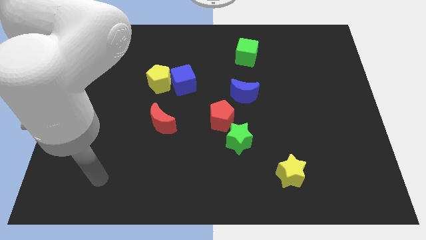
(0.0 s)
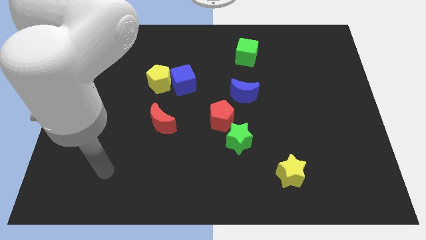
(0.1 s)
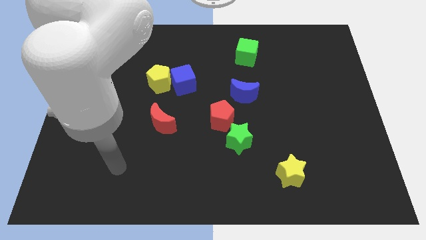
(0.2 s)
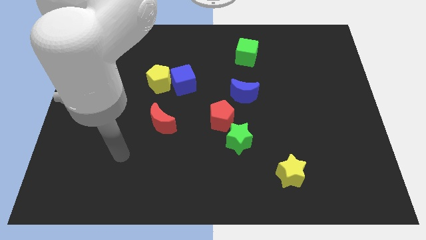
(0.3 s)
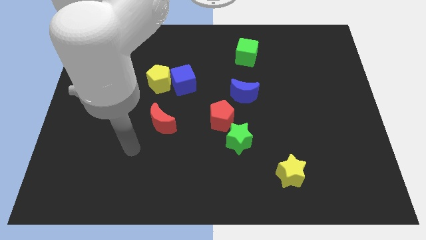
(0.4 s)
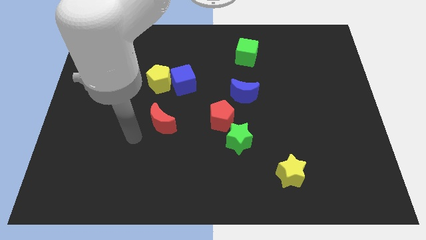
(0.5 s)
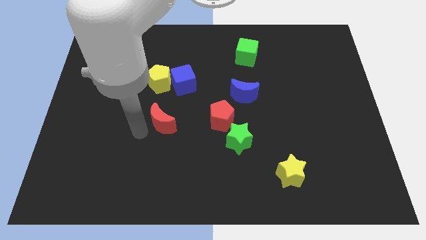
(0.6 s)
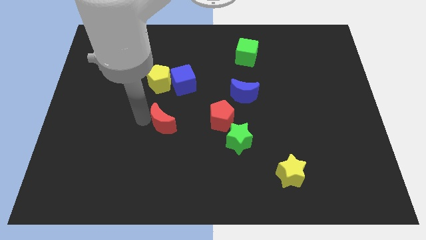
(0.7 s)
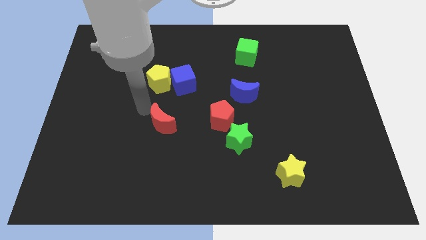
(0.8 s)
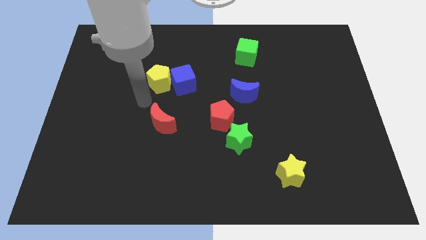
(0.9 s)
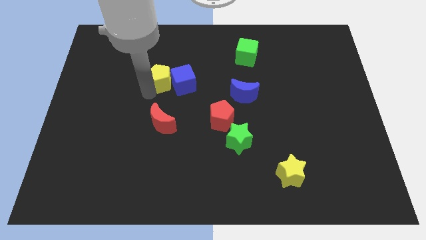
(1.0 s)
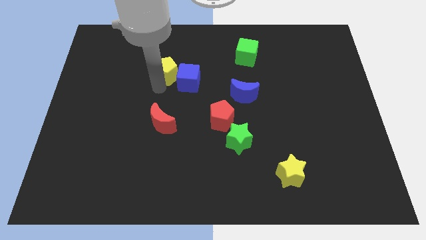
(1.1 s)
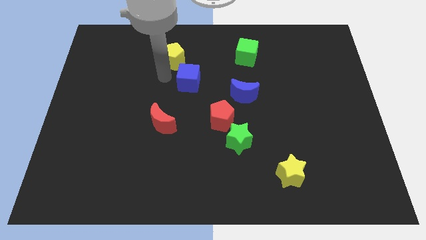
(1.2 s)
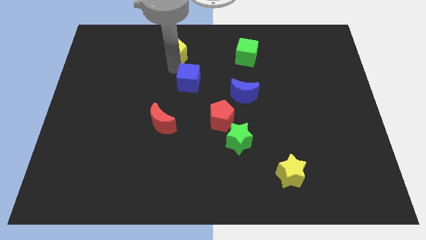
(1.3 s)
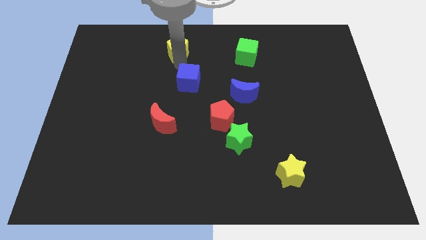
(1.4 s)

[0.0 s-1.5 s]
separate the blue cube from the yellow pentagon

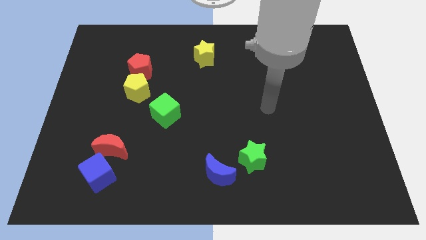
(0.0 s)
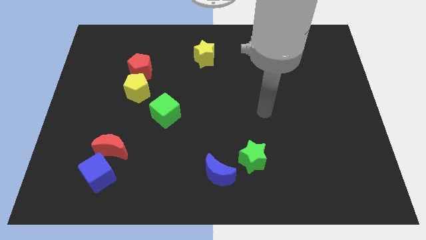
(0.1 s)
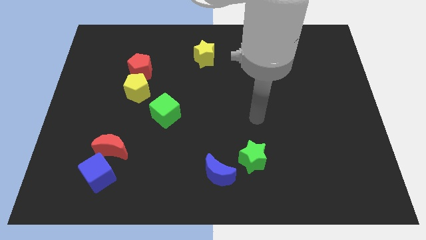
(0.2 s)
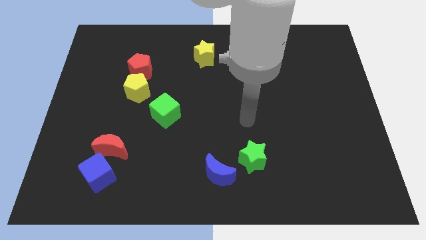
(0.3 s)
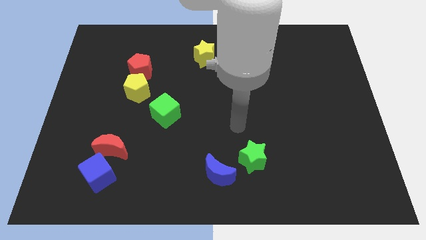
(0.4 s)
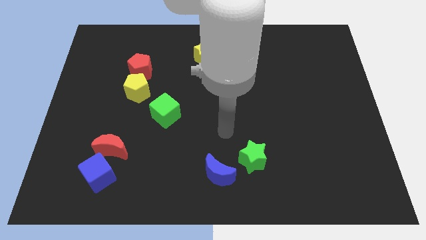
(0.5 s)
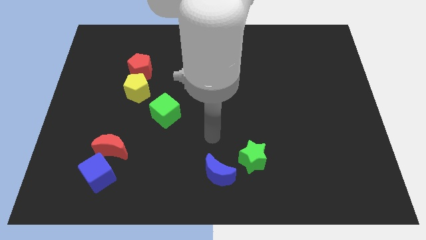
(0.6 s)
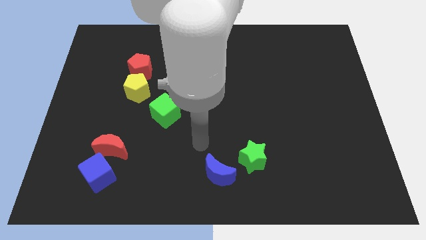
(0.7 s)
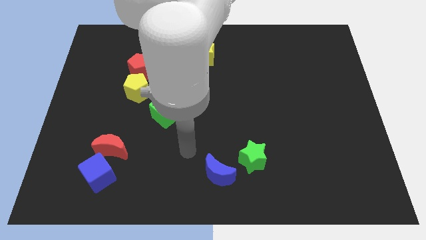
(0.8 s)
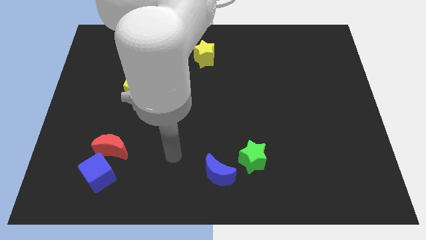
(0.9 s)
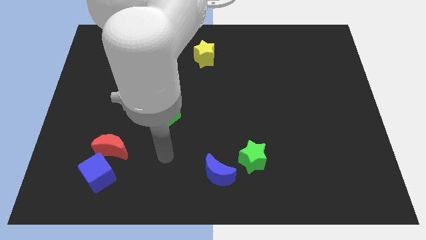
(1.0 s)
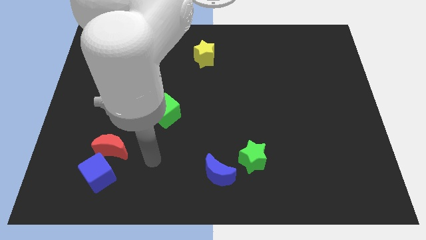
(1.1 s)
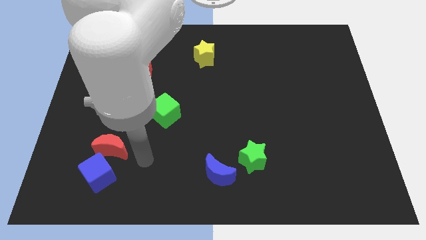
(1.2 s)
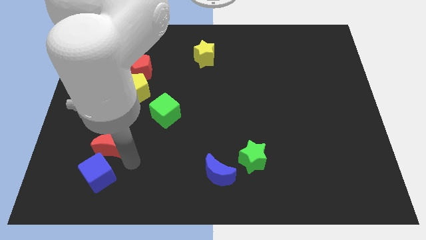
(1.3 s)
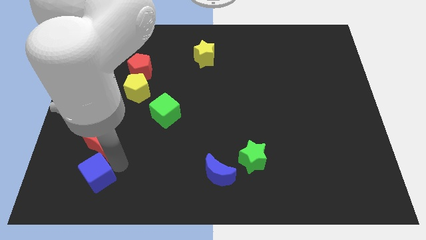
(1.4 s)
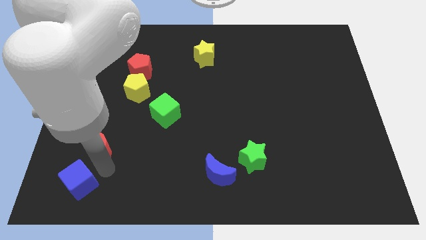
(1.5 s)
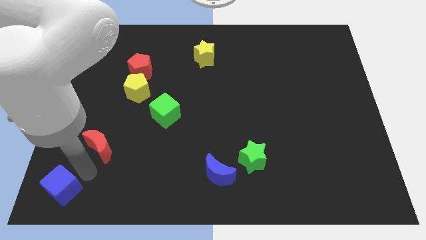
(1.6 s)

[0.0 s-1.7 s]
separate the red moon from the blue cube

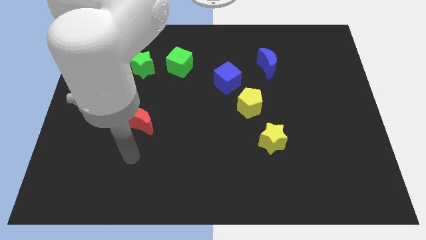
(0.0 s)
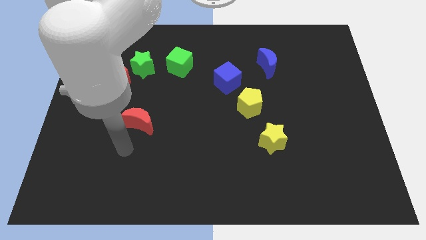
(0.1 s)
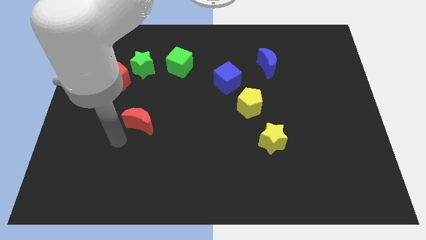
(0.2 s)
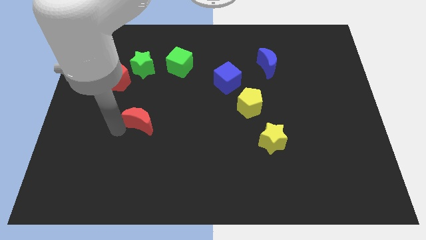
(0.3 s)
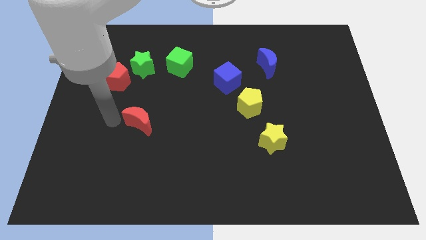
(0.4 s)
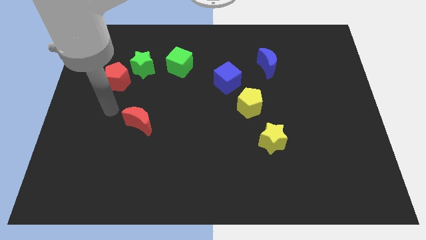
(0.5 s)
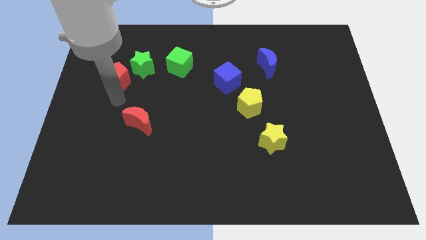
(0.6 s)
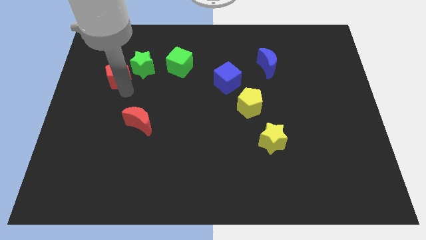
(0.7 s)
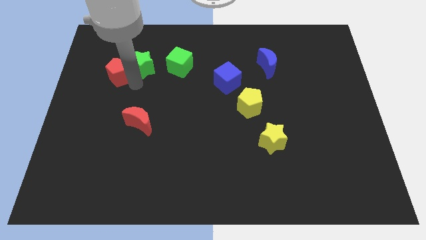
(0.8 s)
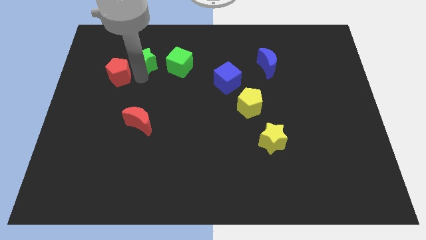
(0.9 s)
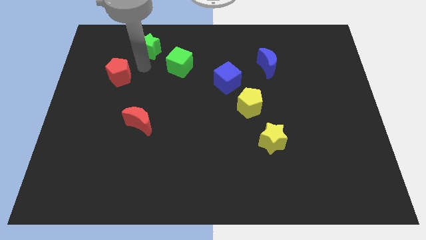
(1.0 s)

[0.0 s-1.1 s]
pull the red pentagon apart from the green star

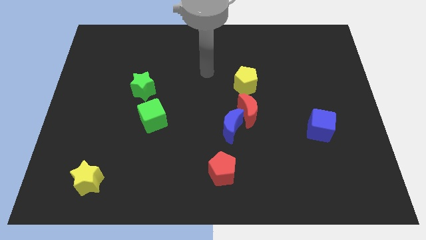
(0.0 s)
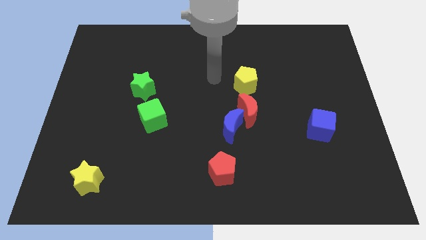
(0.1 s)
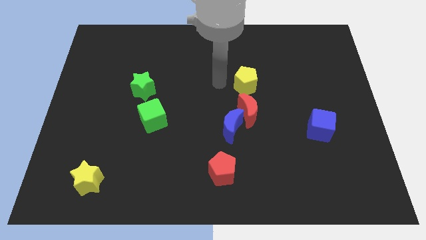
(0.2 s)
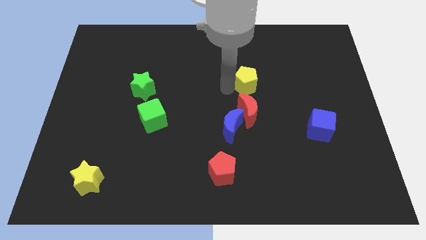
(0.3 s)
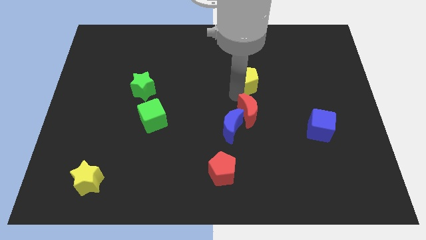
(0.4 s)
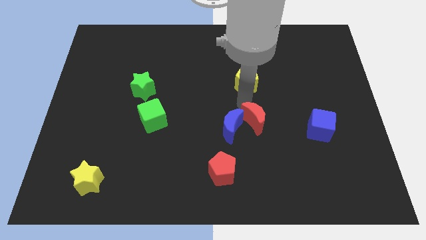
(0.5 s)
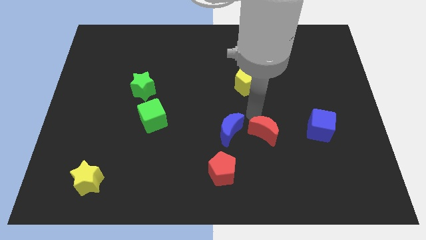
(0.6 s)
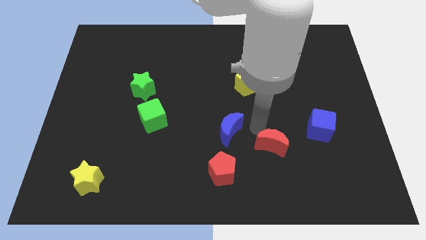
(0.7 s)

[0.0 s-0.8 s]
move the blue moon away from the red moon

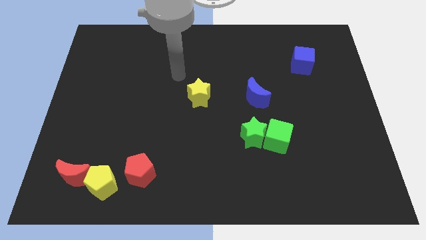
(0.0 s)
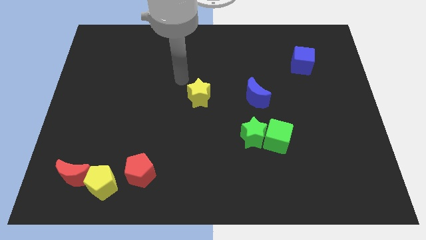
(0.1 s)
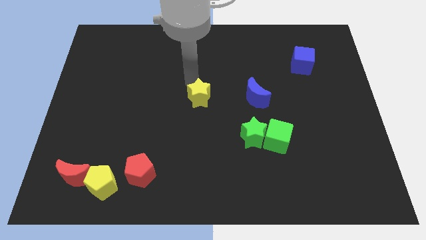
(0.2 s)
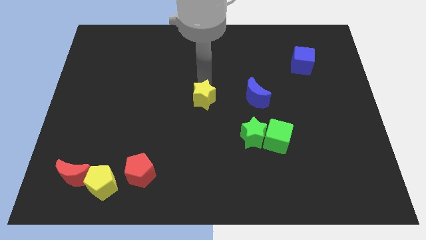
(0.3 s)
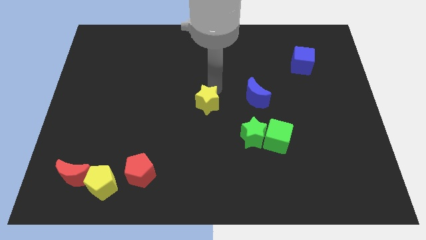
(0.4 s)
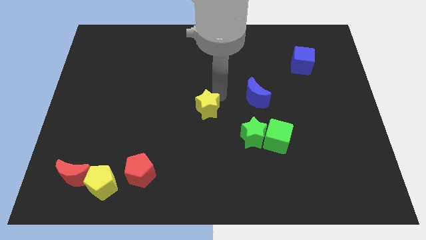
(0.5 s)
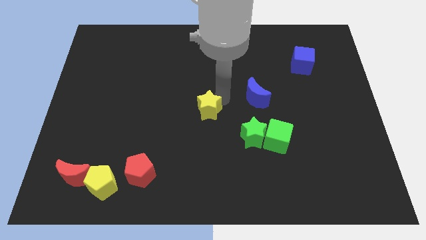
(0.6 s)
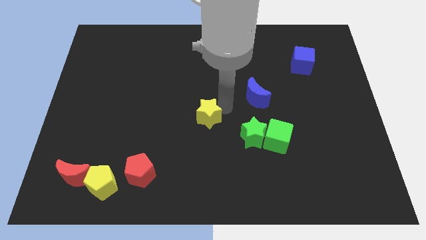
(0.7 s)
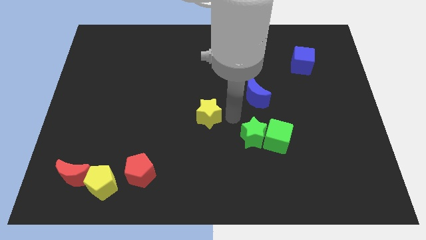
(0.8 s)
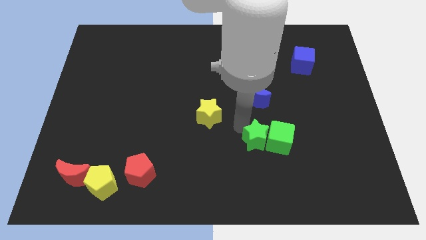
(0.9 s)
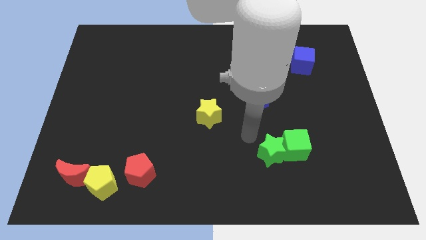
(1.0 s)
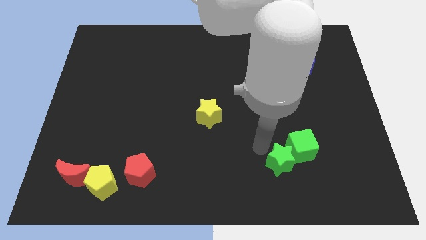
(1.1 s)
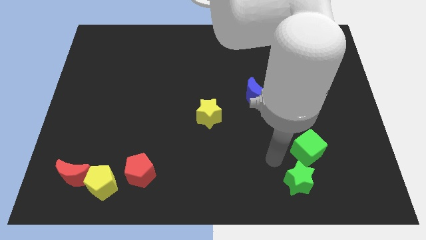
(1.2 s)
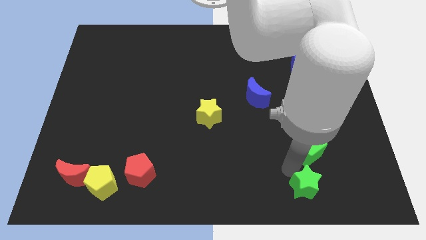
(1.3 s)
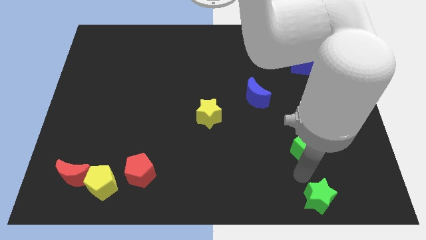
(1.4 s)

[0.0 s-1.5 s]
pull the green cube apart from the green star

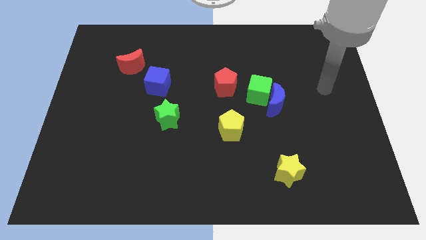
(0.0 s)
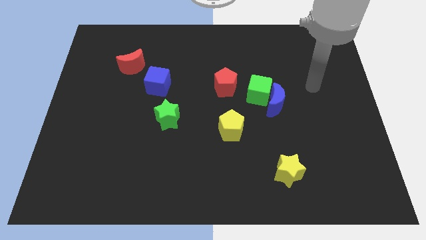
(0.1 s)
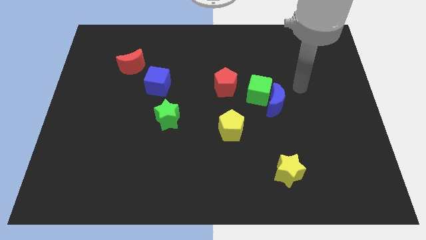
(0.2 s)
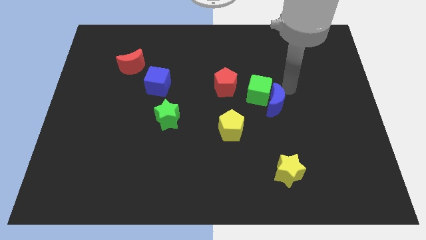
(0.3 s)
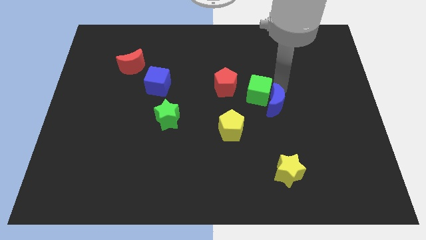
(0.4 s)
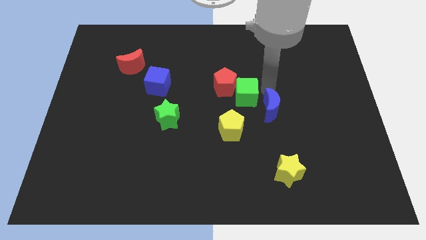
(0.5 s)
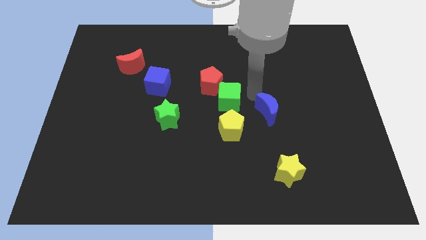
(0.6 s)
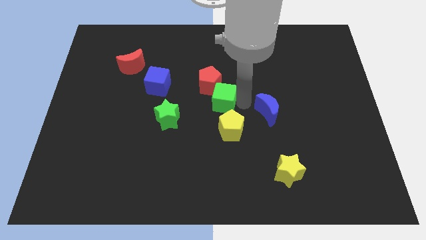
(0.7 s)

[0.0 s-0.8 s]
move the blue moon away from the green cube

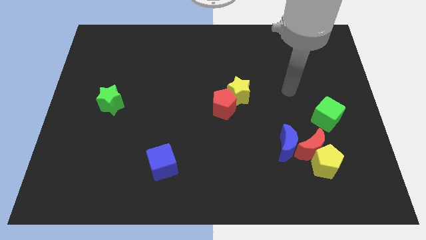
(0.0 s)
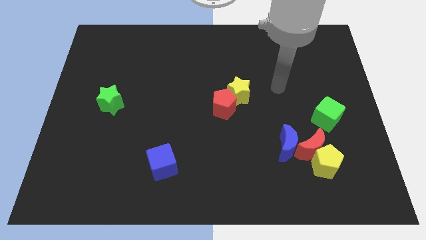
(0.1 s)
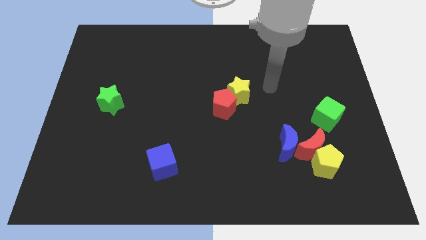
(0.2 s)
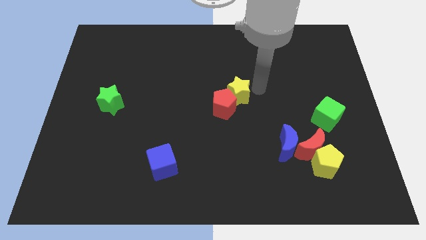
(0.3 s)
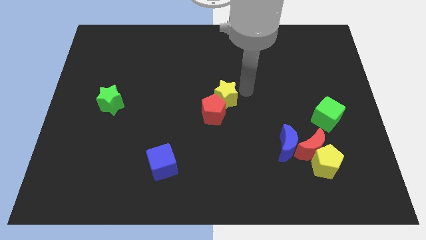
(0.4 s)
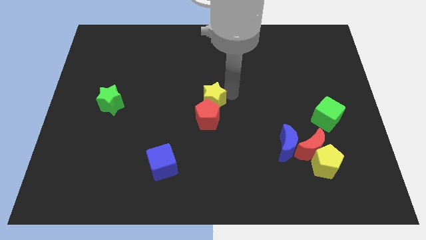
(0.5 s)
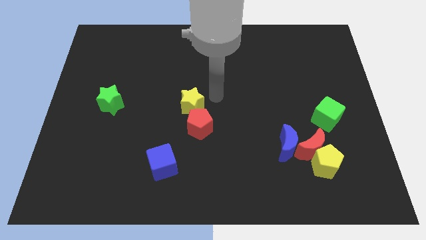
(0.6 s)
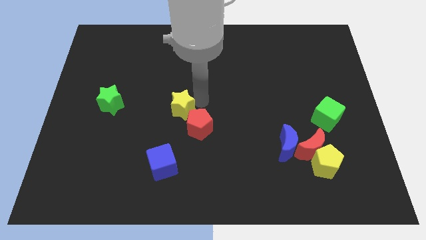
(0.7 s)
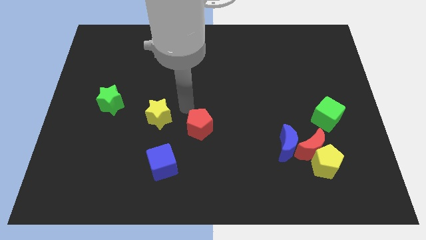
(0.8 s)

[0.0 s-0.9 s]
move the red pentagon away from the yellow star

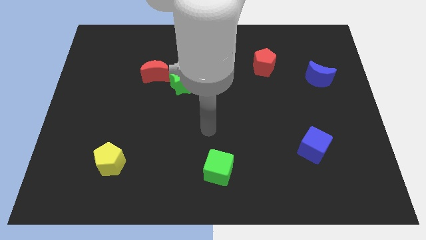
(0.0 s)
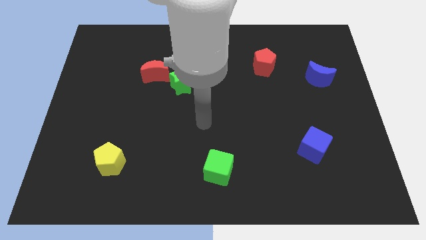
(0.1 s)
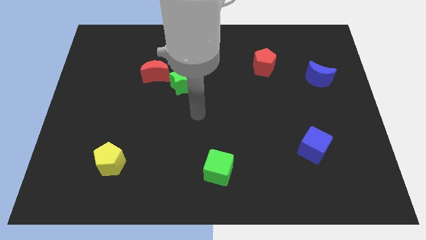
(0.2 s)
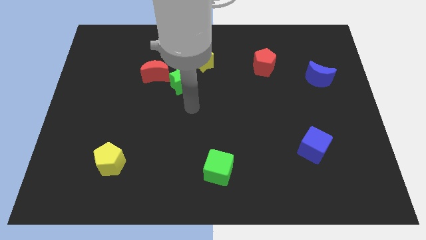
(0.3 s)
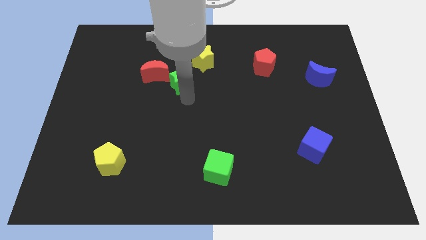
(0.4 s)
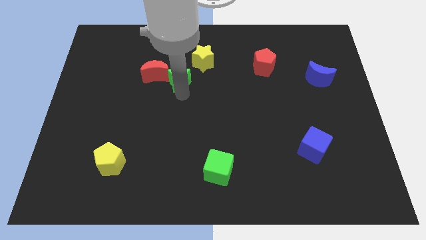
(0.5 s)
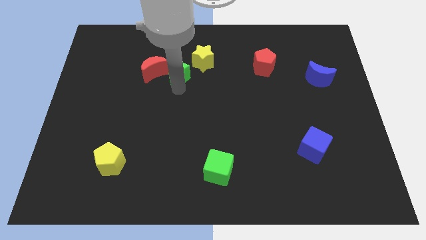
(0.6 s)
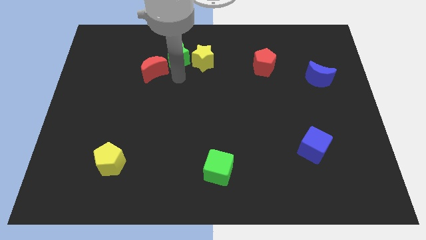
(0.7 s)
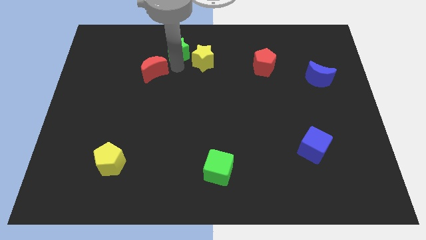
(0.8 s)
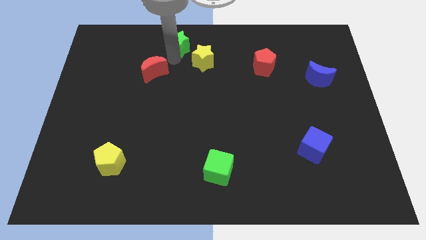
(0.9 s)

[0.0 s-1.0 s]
separate the red moon from the green star
